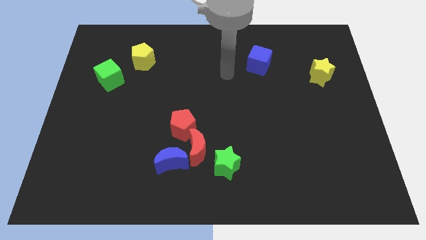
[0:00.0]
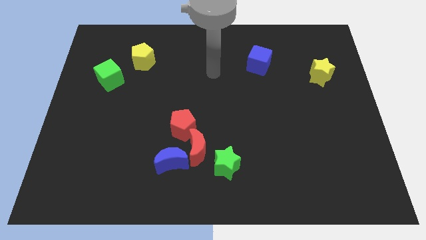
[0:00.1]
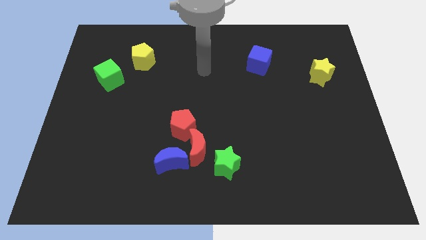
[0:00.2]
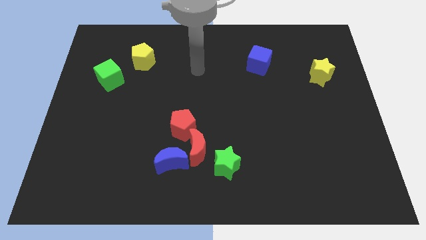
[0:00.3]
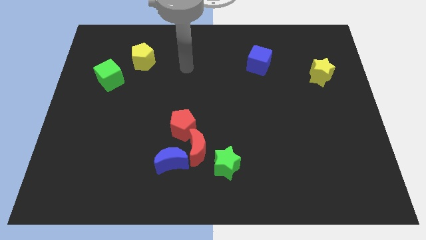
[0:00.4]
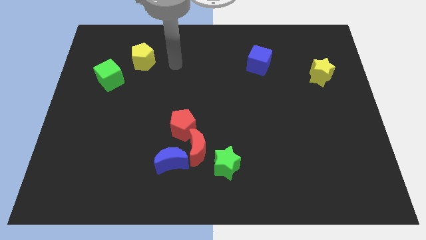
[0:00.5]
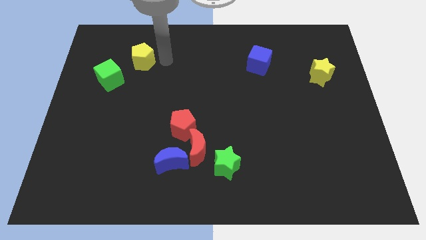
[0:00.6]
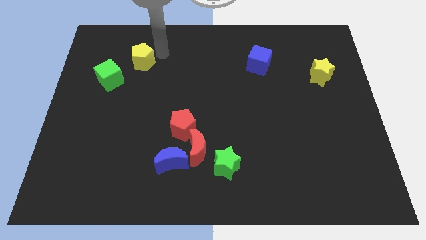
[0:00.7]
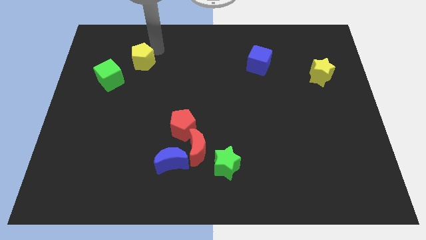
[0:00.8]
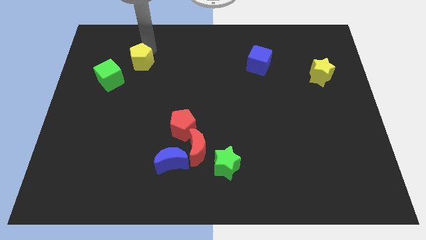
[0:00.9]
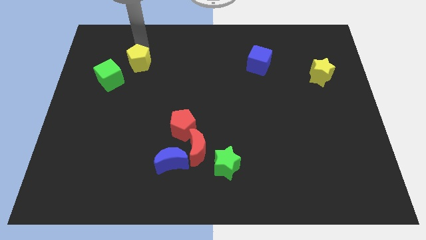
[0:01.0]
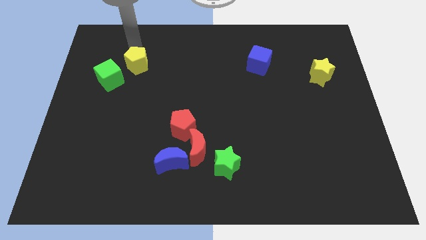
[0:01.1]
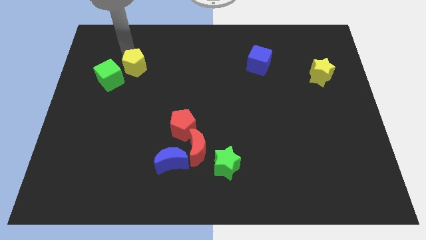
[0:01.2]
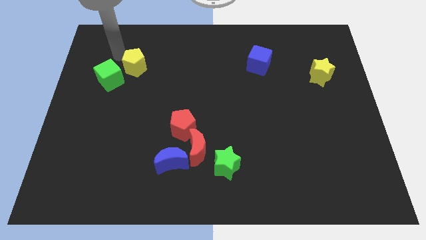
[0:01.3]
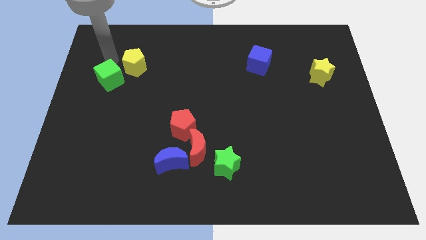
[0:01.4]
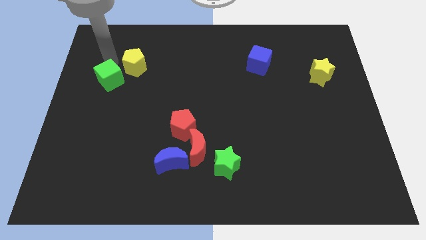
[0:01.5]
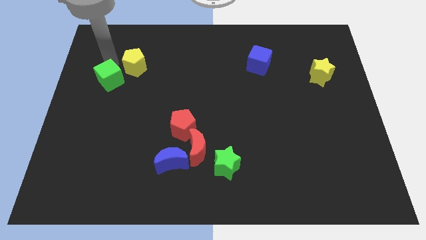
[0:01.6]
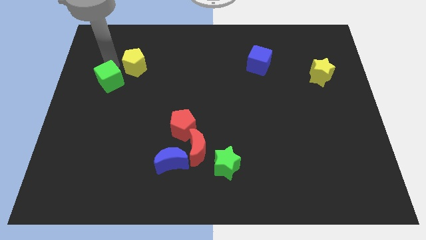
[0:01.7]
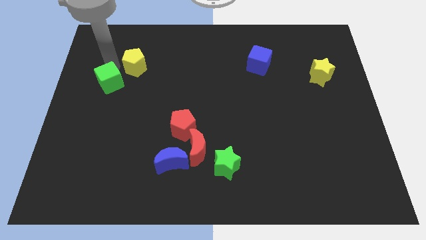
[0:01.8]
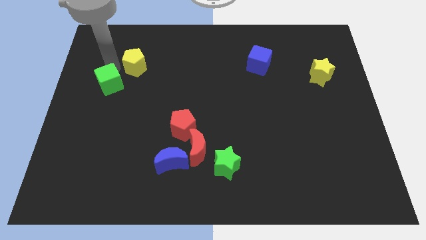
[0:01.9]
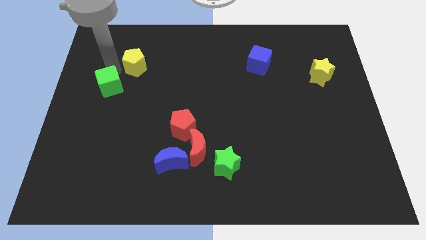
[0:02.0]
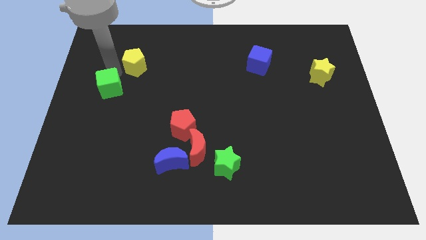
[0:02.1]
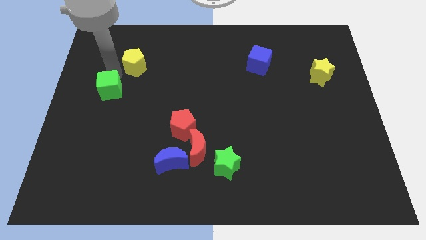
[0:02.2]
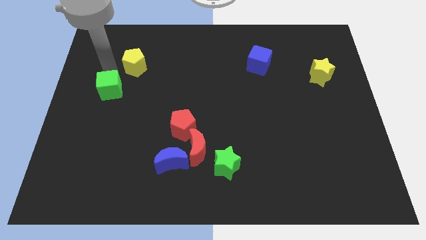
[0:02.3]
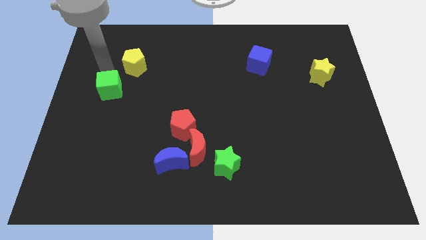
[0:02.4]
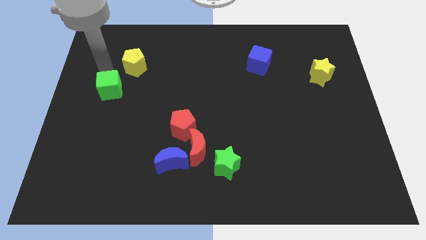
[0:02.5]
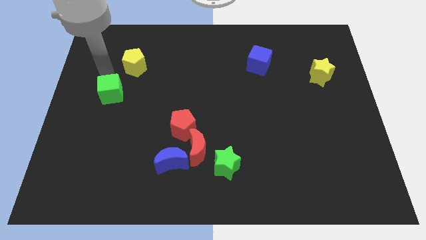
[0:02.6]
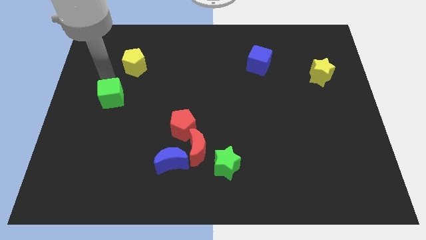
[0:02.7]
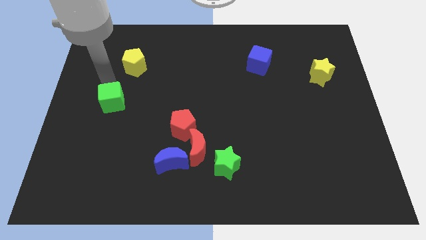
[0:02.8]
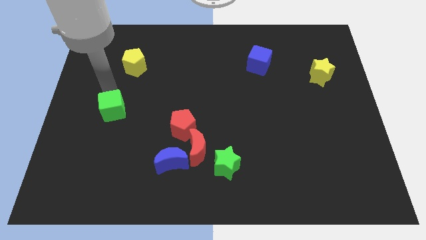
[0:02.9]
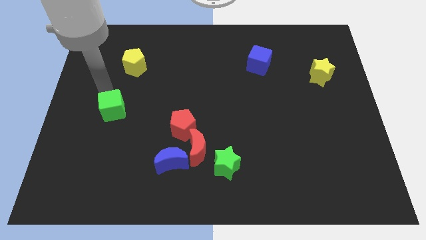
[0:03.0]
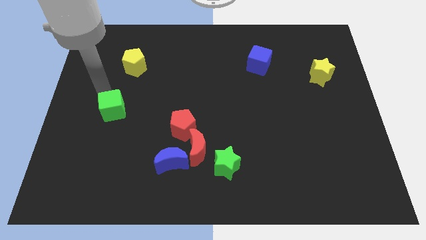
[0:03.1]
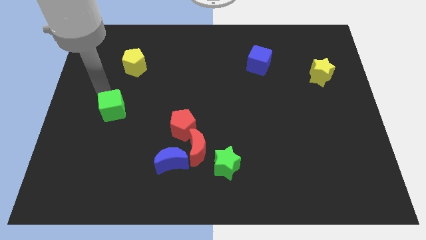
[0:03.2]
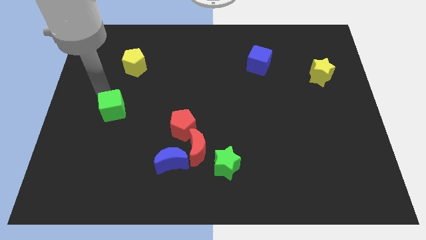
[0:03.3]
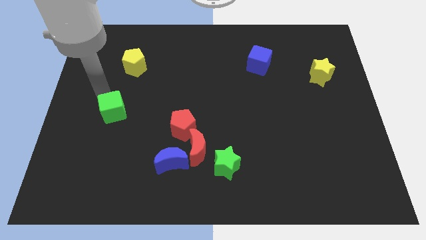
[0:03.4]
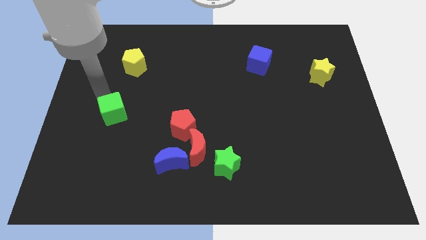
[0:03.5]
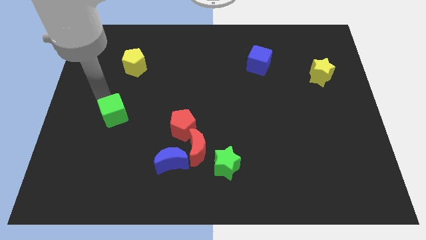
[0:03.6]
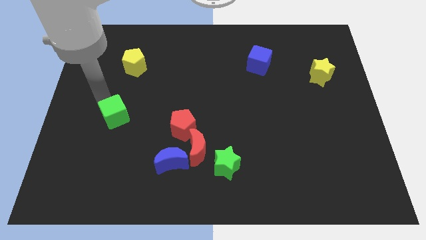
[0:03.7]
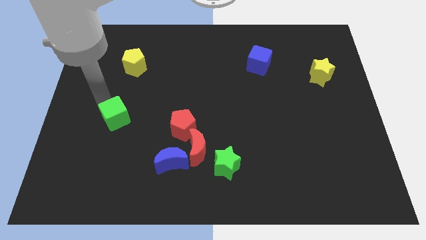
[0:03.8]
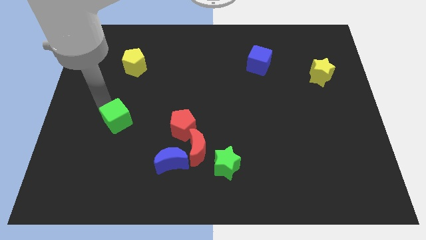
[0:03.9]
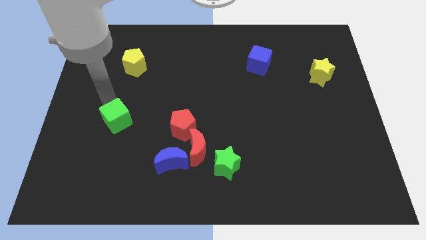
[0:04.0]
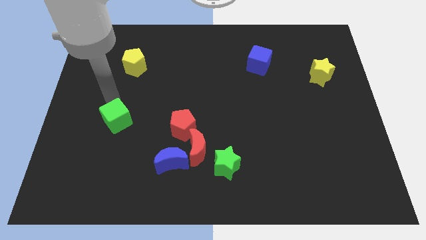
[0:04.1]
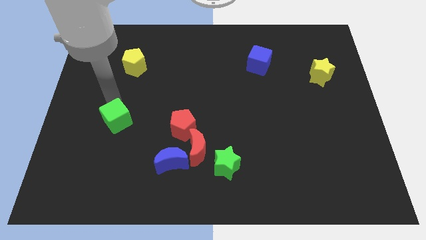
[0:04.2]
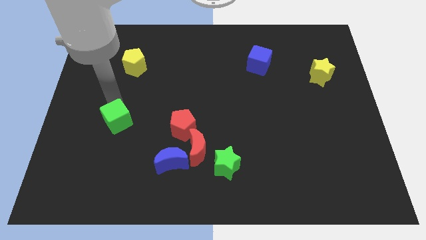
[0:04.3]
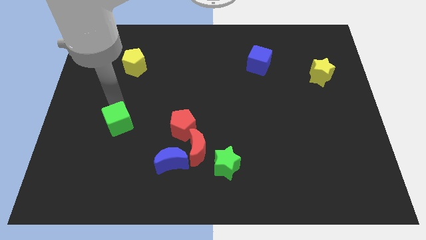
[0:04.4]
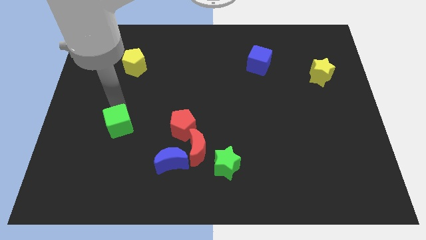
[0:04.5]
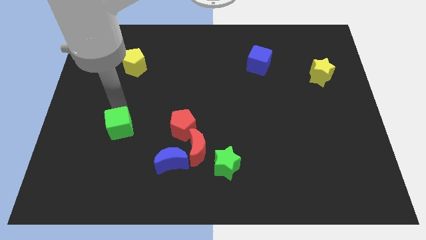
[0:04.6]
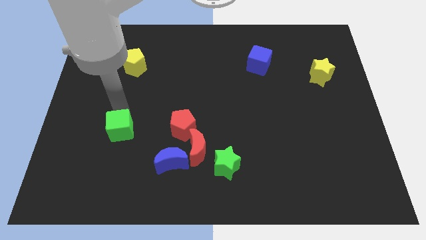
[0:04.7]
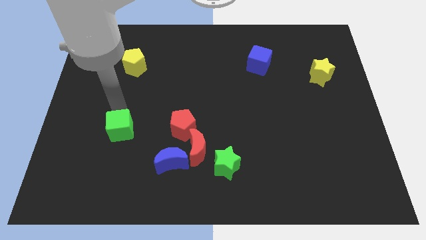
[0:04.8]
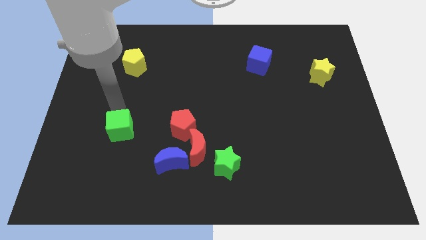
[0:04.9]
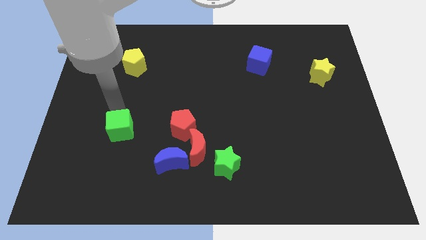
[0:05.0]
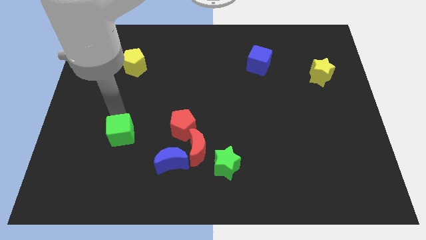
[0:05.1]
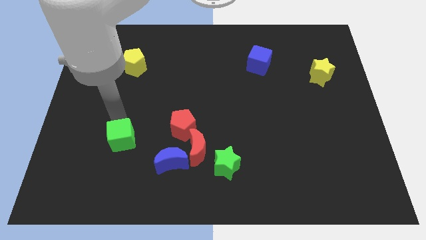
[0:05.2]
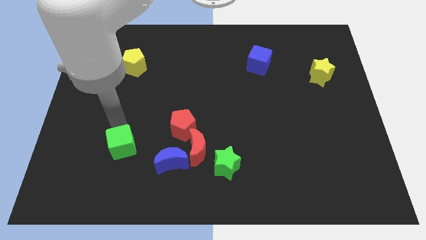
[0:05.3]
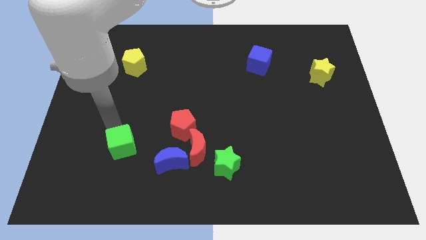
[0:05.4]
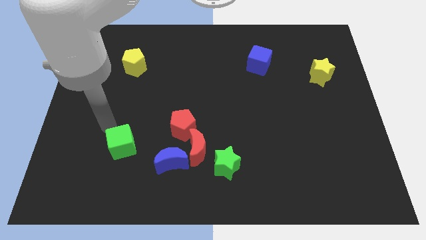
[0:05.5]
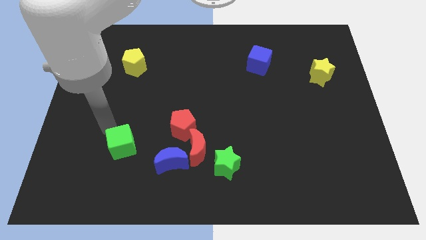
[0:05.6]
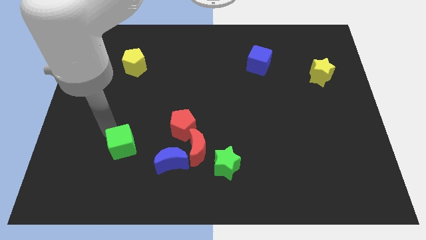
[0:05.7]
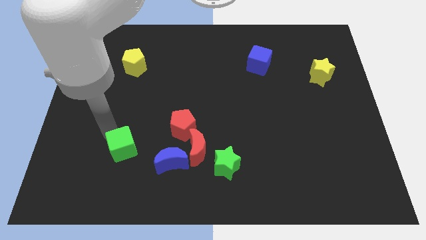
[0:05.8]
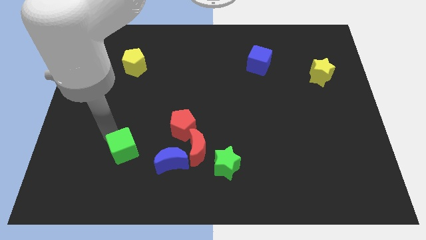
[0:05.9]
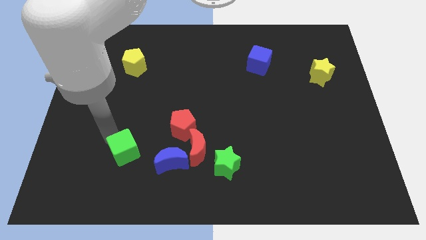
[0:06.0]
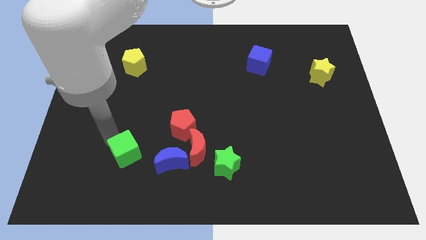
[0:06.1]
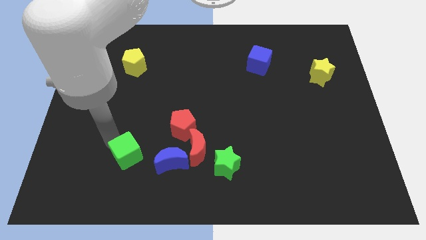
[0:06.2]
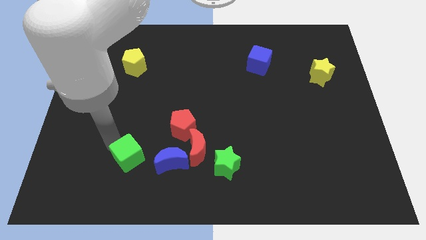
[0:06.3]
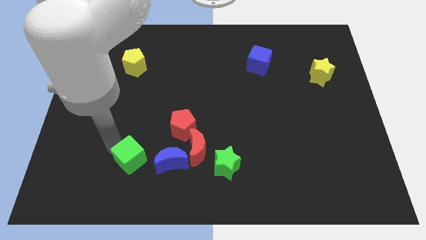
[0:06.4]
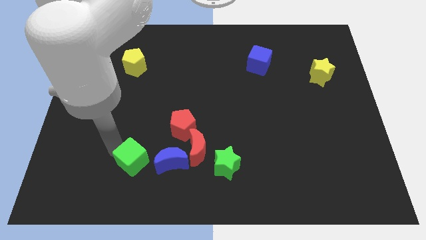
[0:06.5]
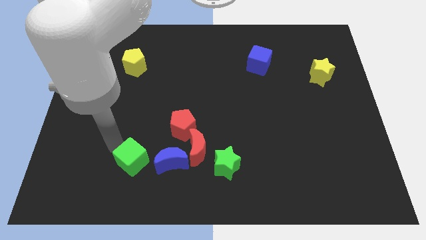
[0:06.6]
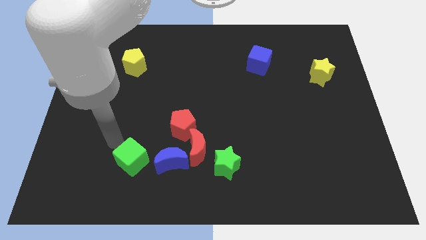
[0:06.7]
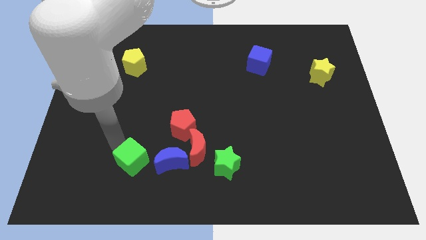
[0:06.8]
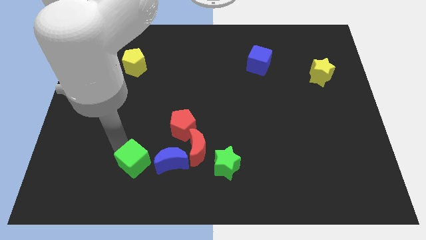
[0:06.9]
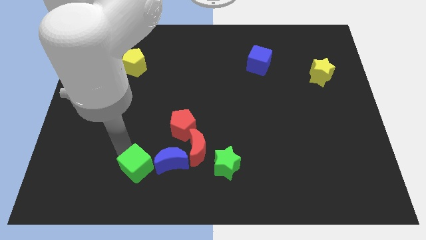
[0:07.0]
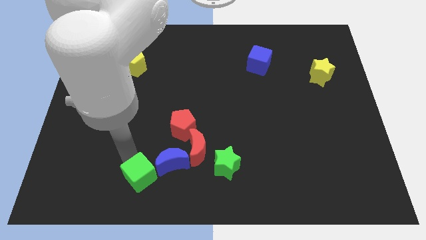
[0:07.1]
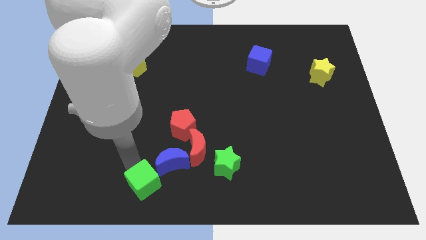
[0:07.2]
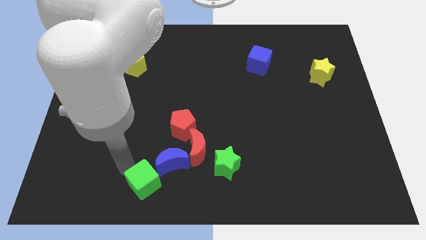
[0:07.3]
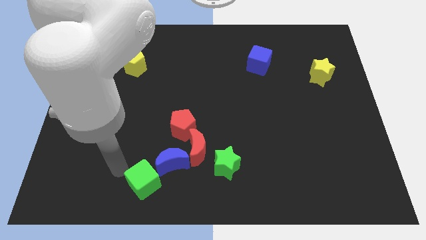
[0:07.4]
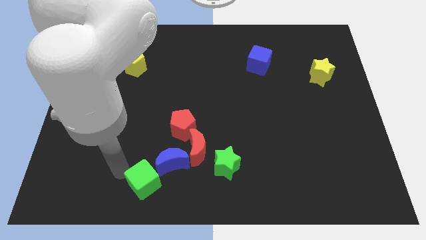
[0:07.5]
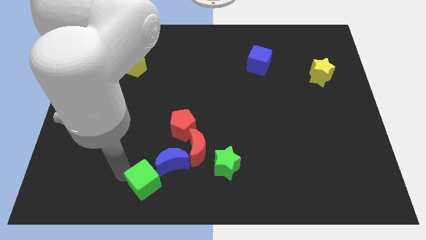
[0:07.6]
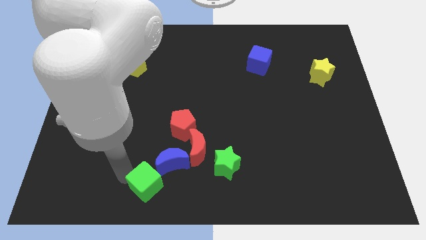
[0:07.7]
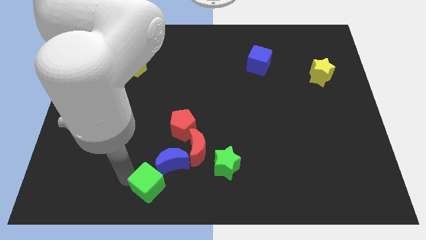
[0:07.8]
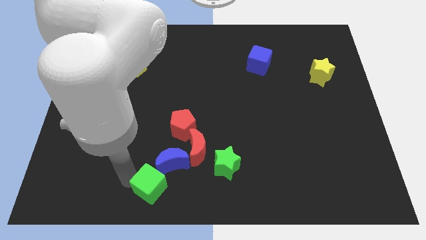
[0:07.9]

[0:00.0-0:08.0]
slide the green cube to the bottom side
